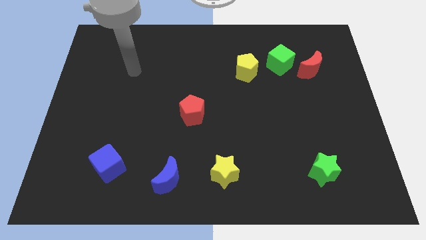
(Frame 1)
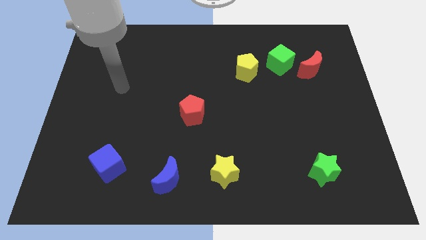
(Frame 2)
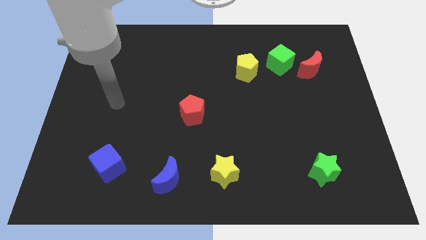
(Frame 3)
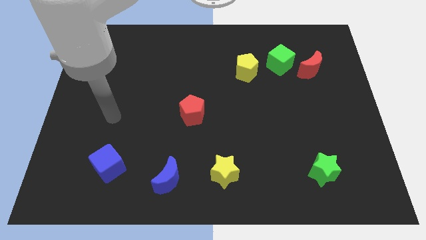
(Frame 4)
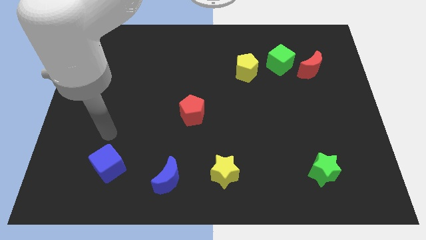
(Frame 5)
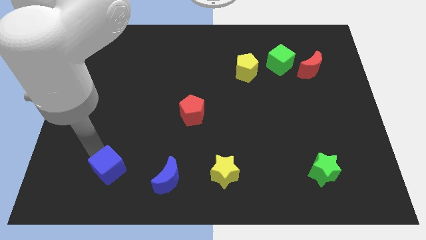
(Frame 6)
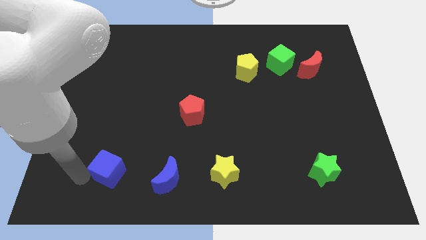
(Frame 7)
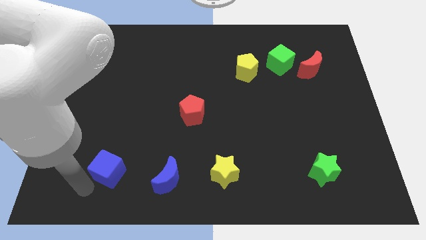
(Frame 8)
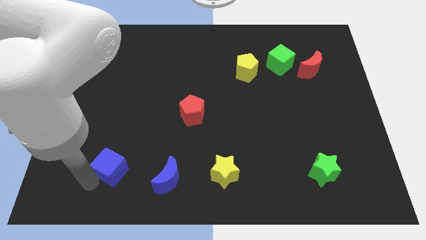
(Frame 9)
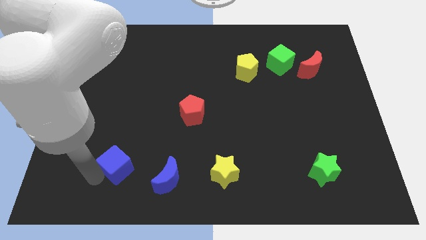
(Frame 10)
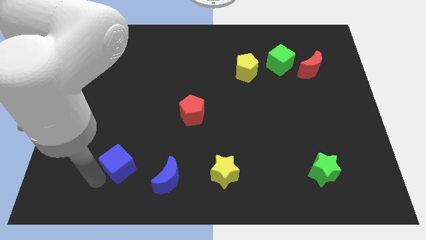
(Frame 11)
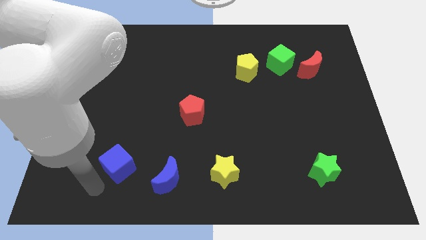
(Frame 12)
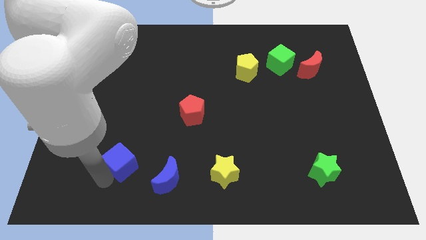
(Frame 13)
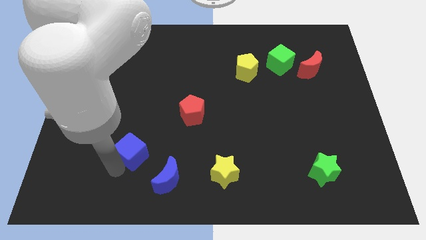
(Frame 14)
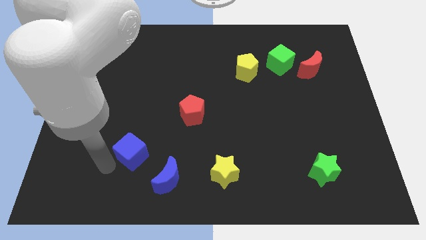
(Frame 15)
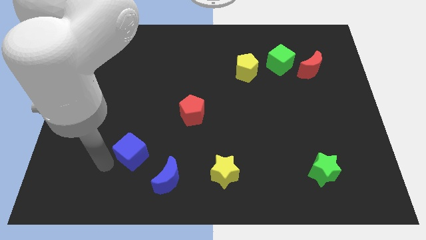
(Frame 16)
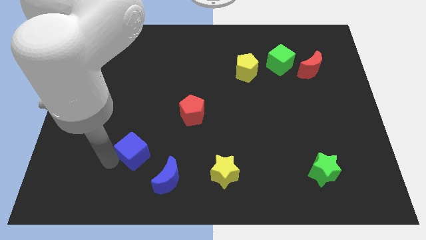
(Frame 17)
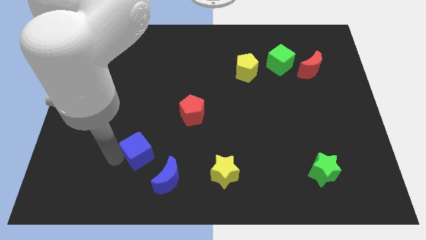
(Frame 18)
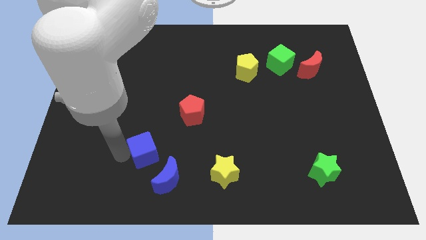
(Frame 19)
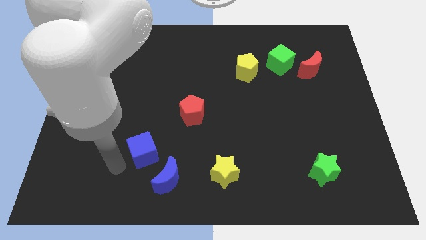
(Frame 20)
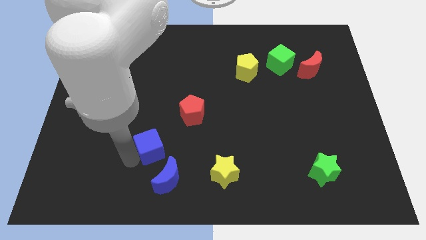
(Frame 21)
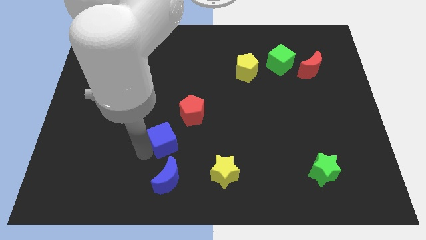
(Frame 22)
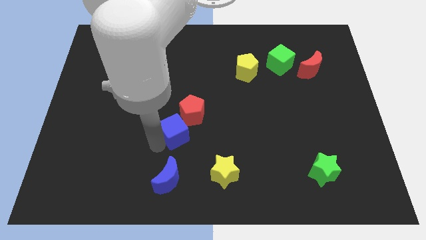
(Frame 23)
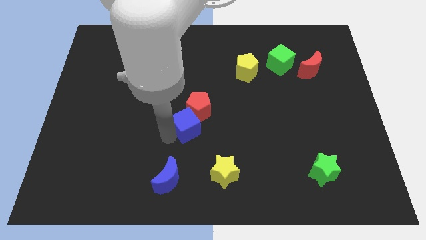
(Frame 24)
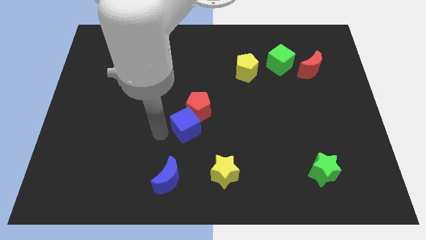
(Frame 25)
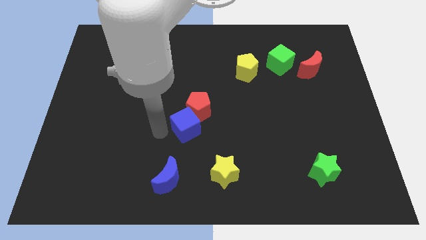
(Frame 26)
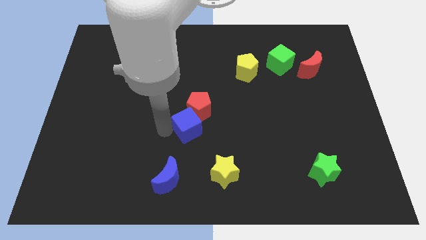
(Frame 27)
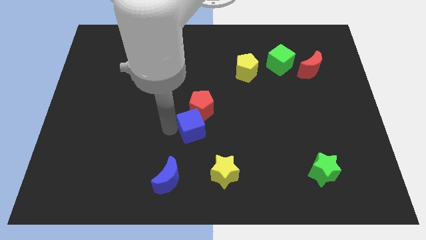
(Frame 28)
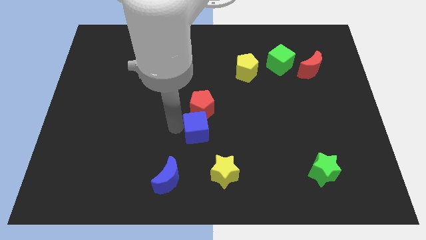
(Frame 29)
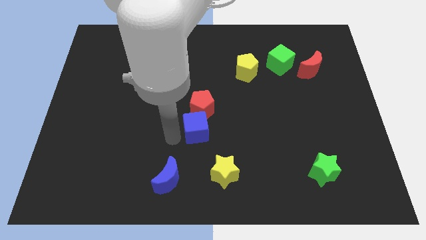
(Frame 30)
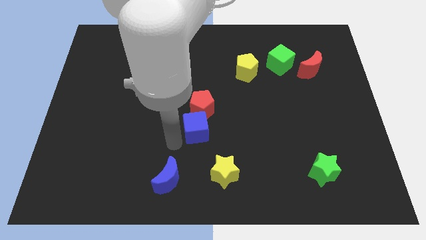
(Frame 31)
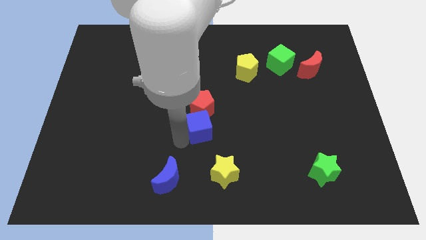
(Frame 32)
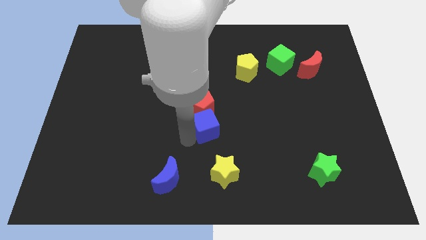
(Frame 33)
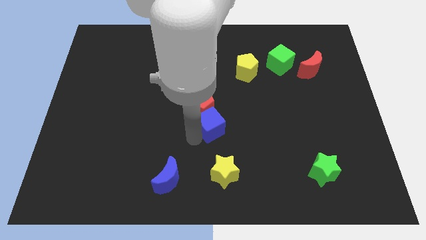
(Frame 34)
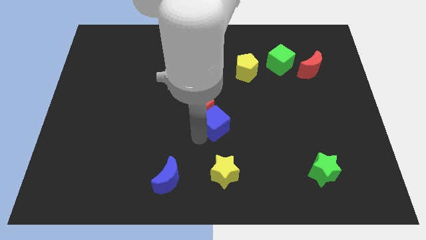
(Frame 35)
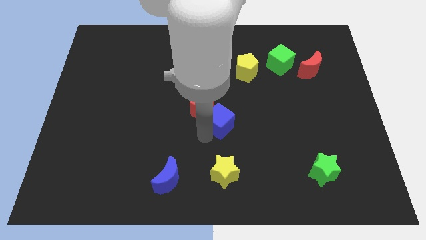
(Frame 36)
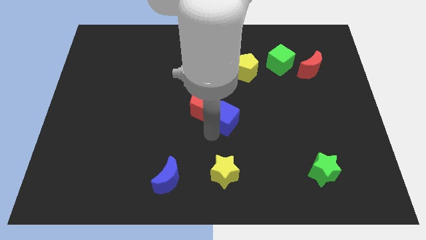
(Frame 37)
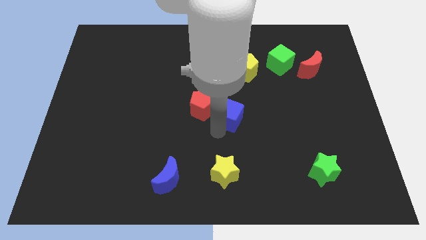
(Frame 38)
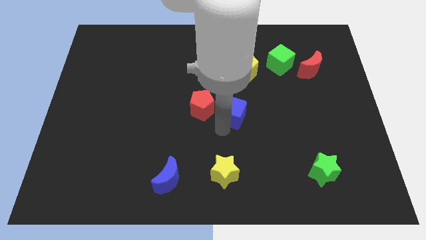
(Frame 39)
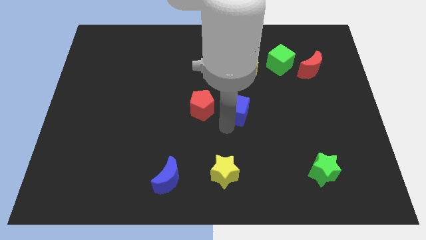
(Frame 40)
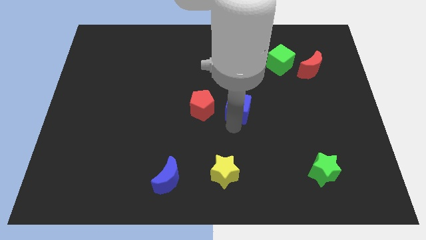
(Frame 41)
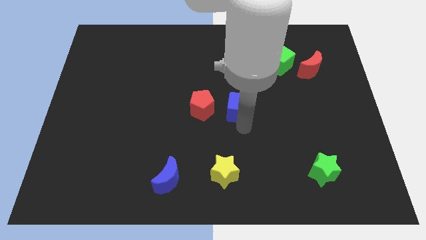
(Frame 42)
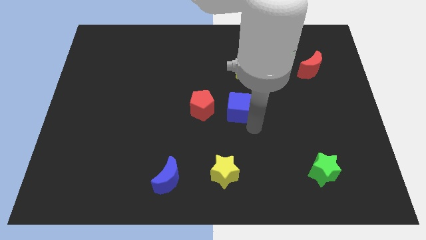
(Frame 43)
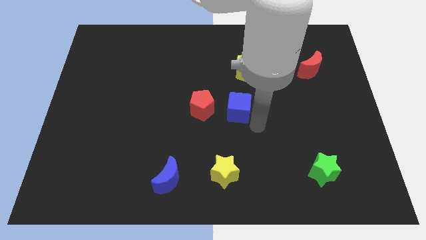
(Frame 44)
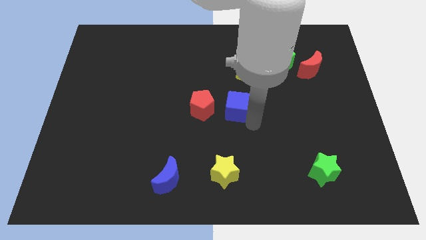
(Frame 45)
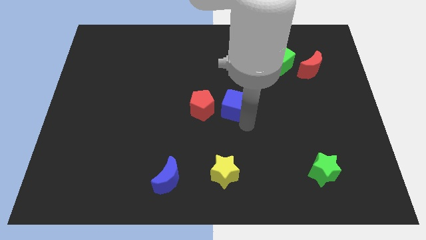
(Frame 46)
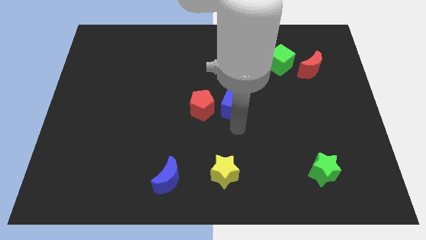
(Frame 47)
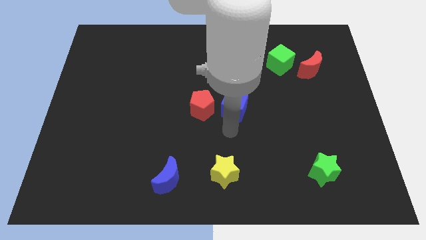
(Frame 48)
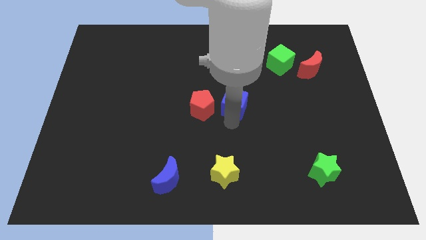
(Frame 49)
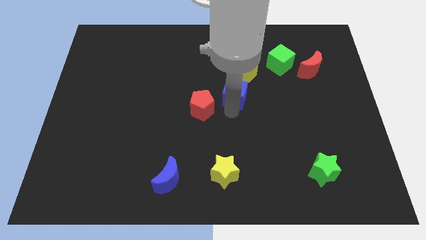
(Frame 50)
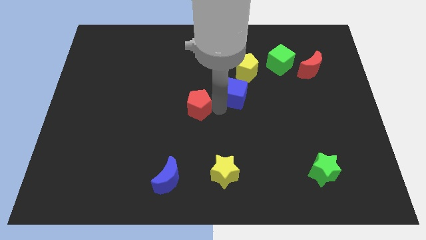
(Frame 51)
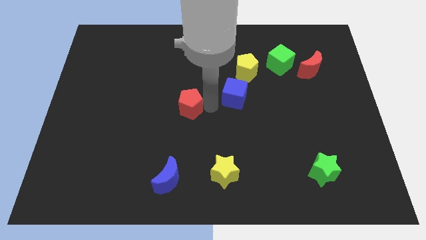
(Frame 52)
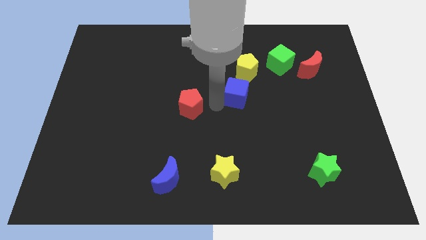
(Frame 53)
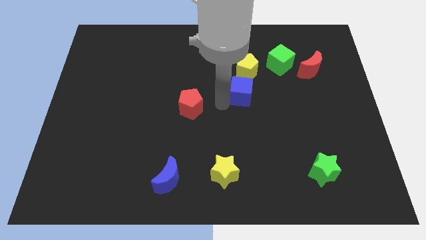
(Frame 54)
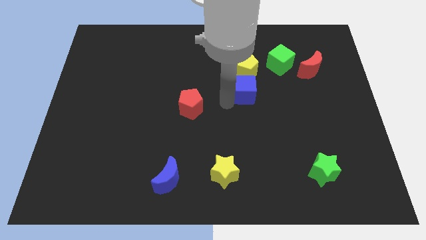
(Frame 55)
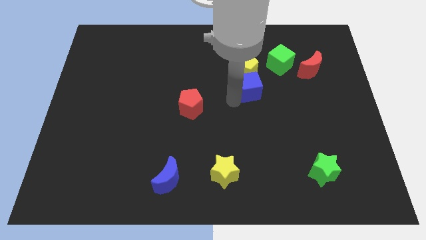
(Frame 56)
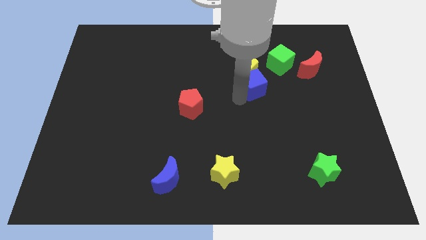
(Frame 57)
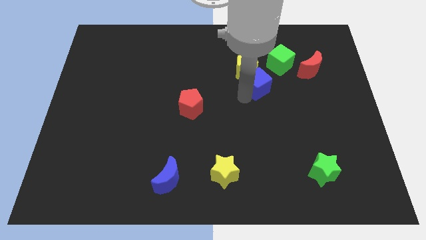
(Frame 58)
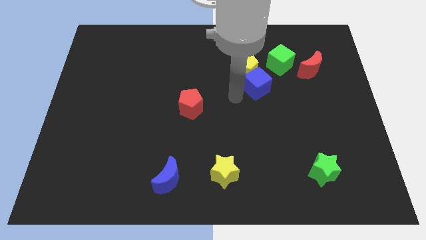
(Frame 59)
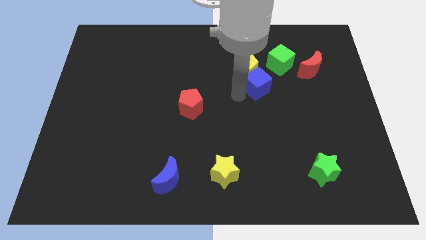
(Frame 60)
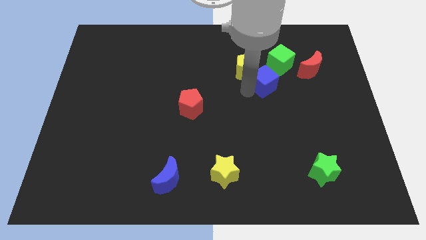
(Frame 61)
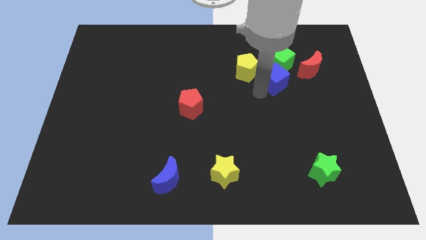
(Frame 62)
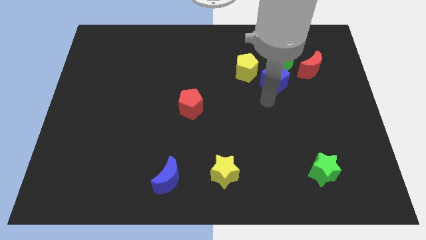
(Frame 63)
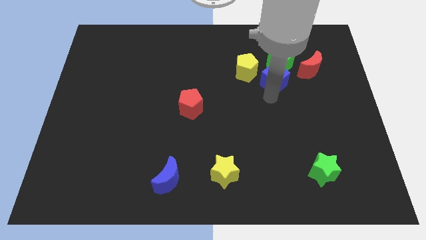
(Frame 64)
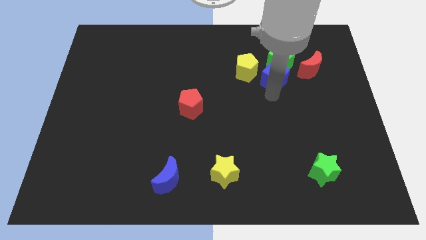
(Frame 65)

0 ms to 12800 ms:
move the blue cube to the green cube

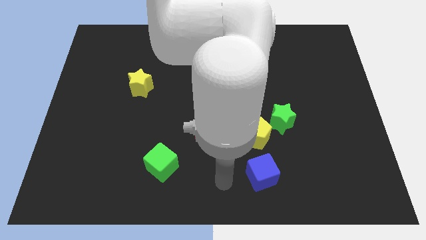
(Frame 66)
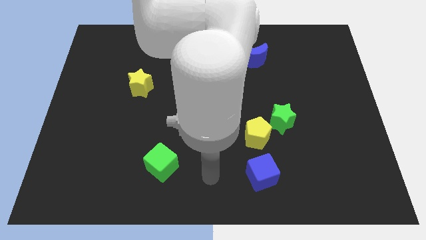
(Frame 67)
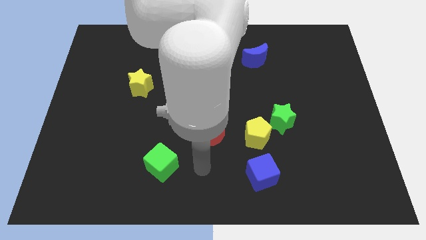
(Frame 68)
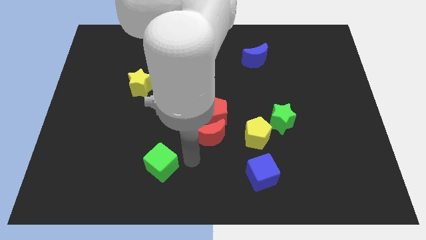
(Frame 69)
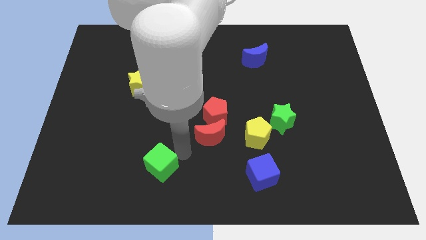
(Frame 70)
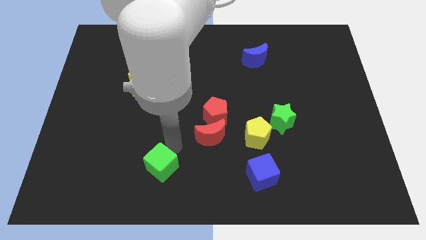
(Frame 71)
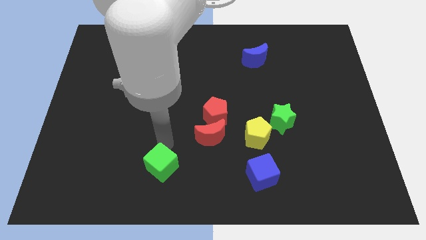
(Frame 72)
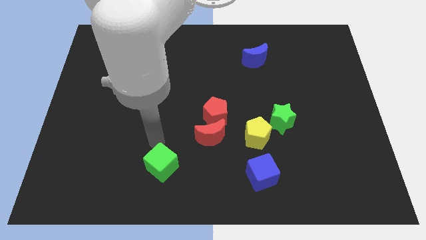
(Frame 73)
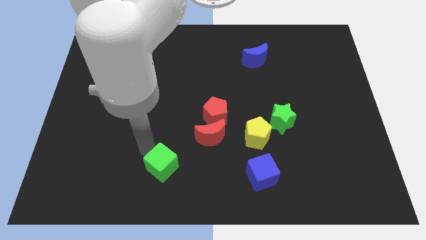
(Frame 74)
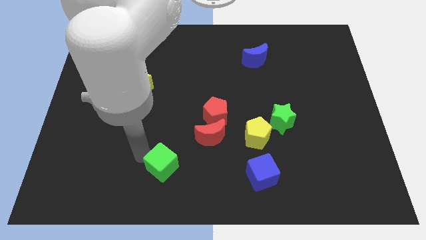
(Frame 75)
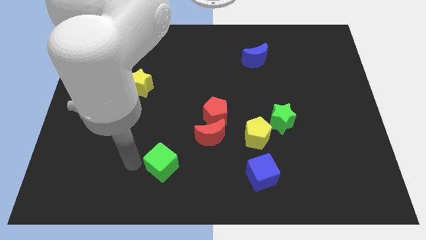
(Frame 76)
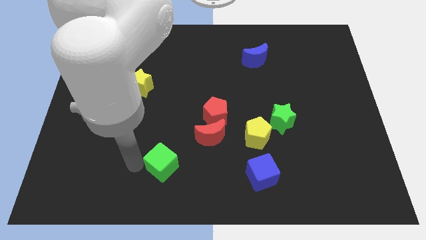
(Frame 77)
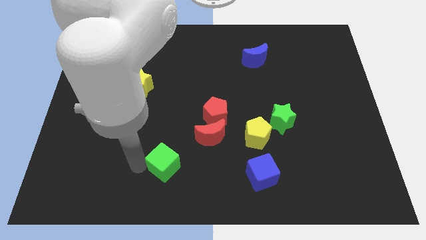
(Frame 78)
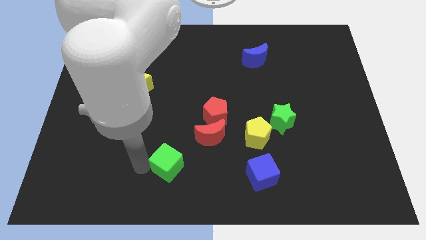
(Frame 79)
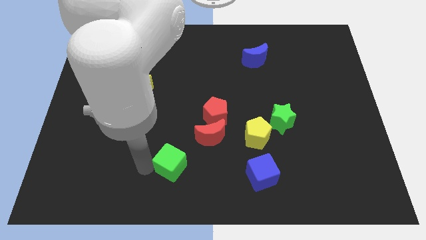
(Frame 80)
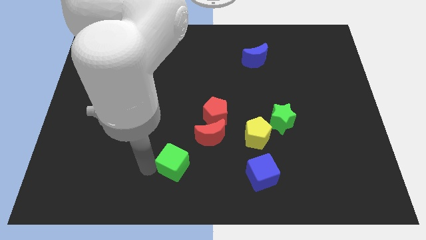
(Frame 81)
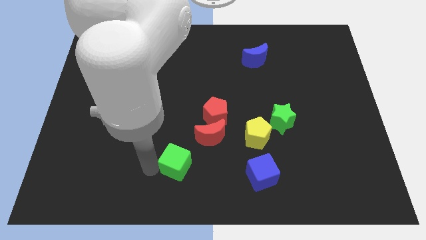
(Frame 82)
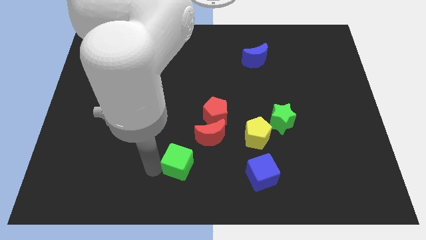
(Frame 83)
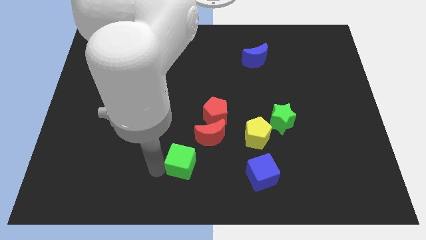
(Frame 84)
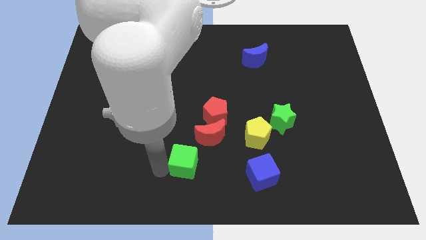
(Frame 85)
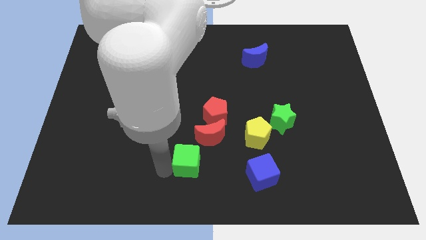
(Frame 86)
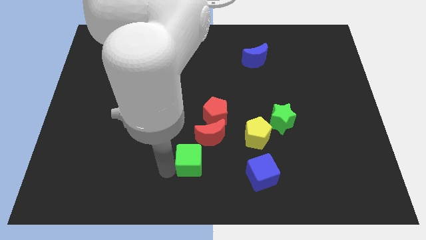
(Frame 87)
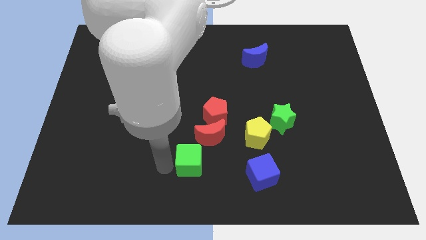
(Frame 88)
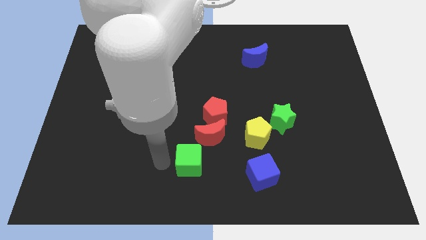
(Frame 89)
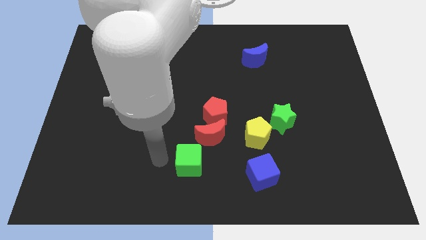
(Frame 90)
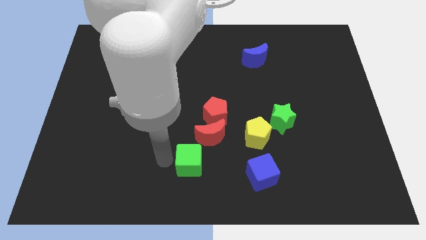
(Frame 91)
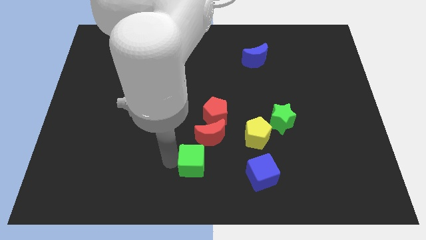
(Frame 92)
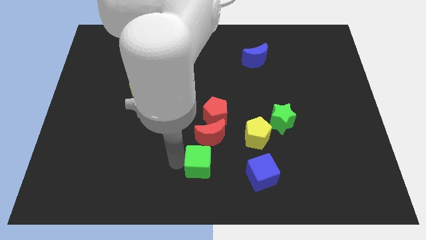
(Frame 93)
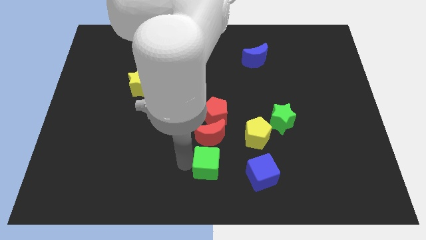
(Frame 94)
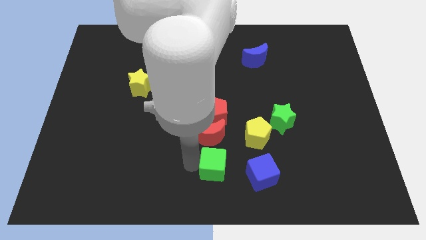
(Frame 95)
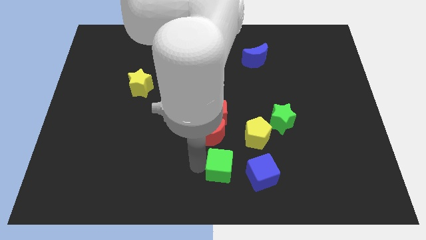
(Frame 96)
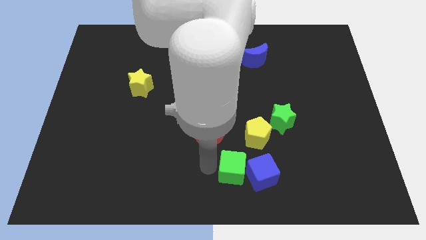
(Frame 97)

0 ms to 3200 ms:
put the green cube to the blue cube
